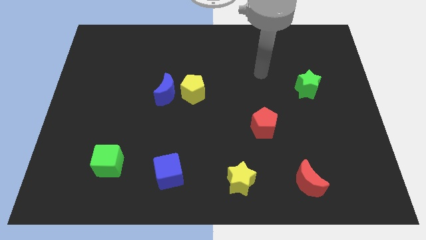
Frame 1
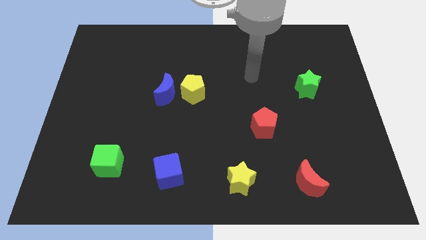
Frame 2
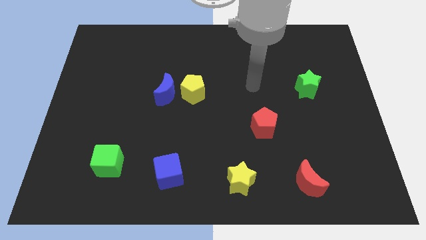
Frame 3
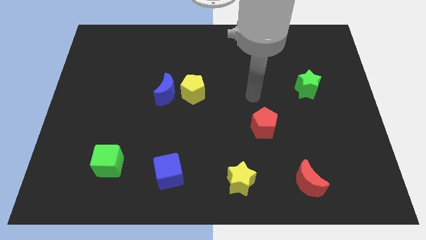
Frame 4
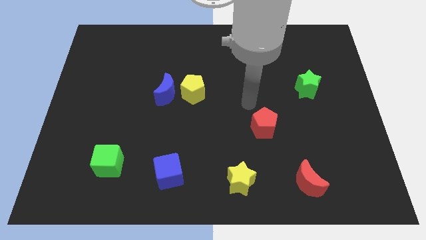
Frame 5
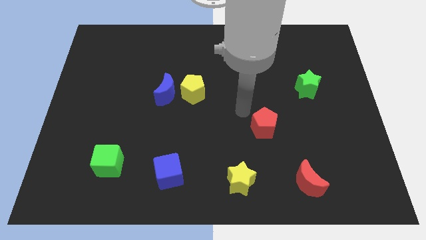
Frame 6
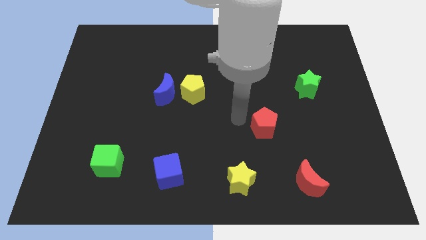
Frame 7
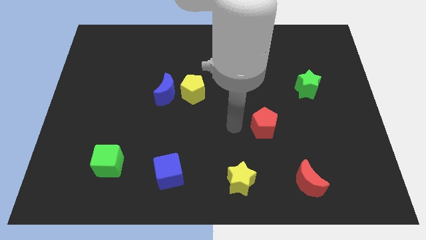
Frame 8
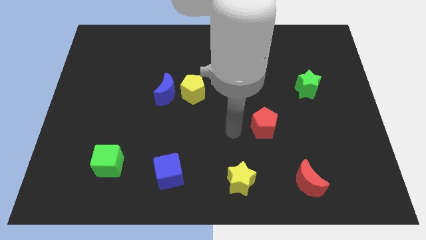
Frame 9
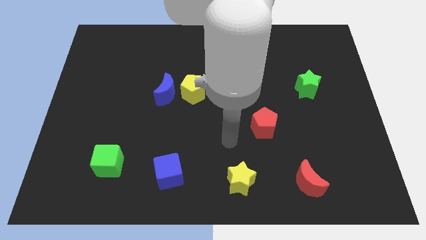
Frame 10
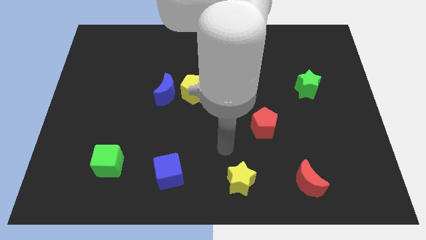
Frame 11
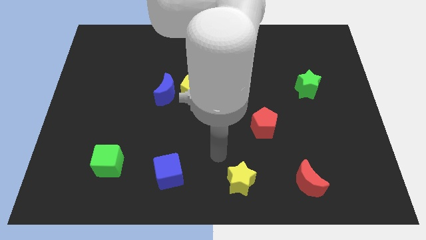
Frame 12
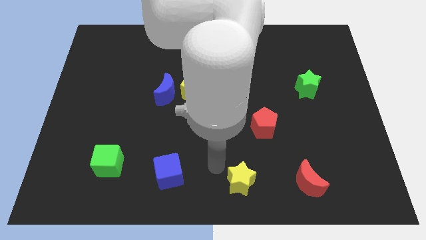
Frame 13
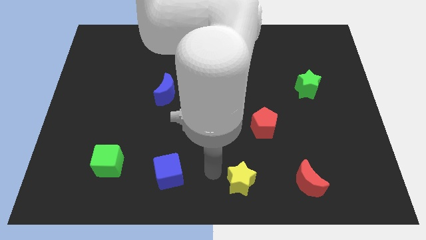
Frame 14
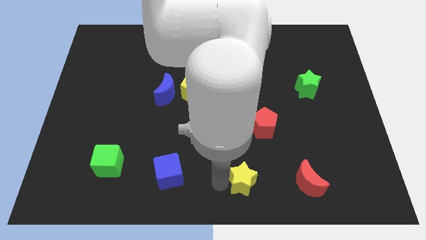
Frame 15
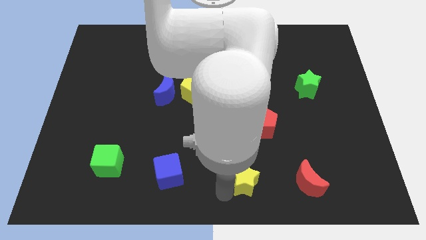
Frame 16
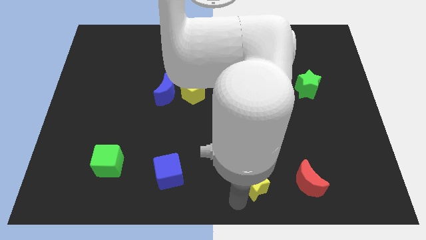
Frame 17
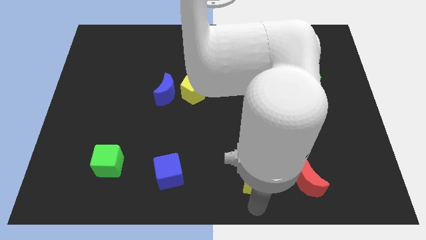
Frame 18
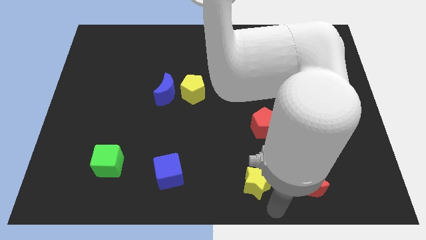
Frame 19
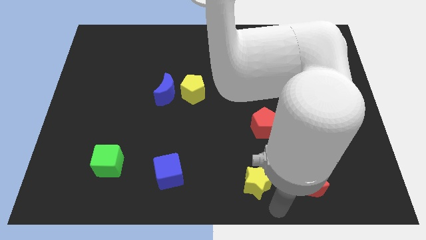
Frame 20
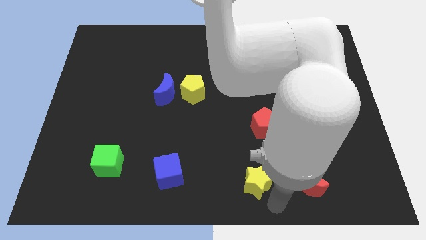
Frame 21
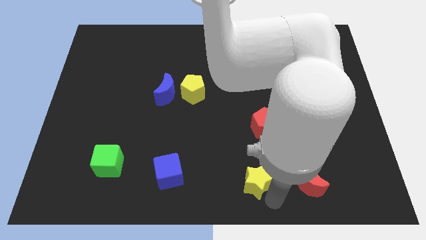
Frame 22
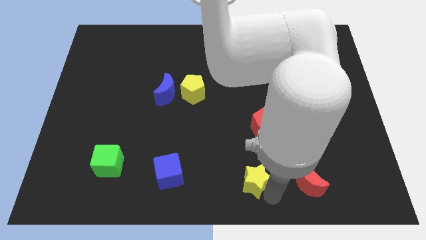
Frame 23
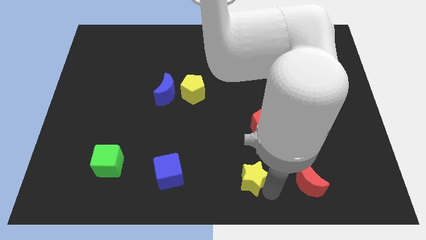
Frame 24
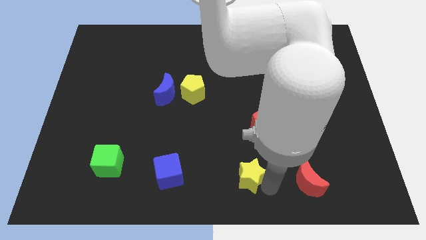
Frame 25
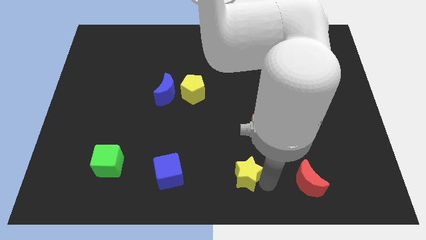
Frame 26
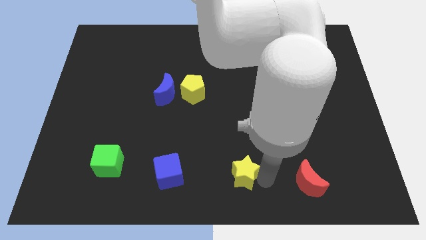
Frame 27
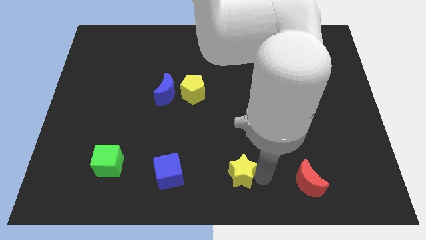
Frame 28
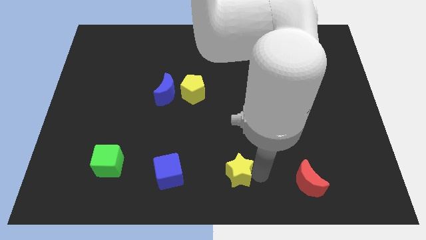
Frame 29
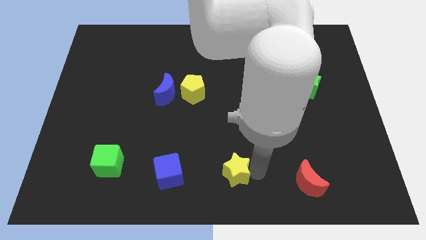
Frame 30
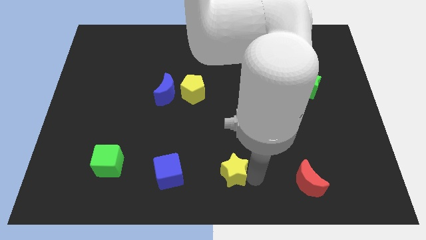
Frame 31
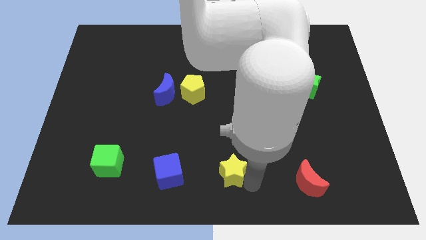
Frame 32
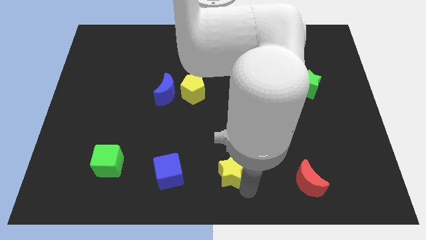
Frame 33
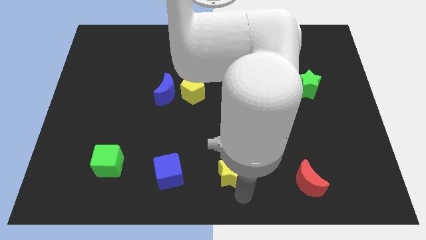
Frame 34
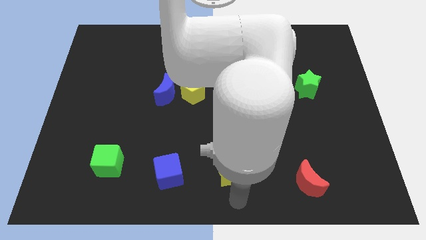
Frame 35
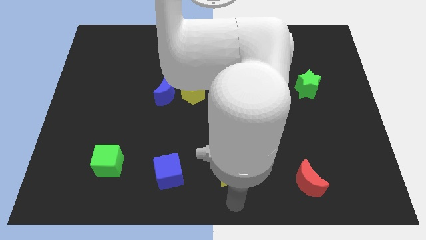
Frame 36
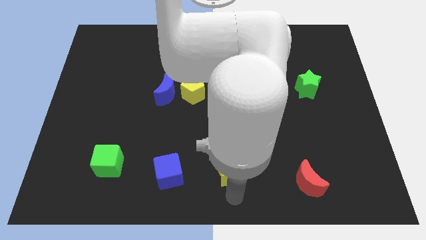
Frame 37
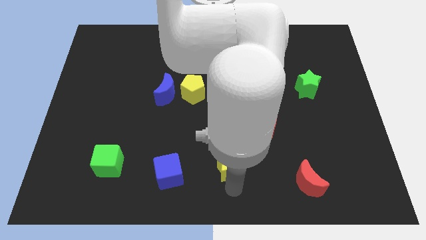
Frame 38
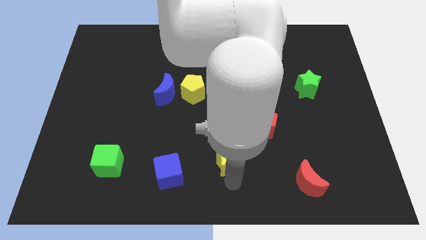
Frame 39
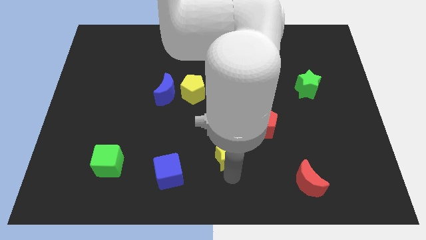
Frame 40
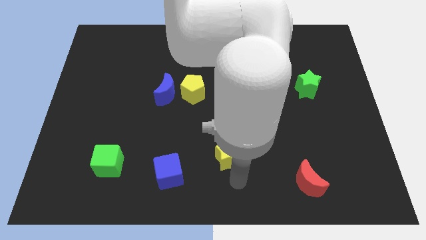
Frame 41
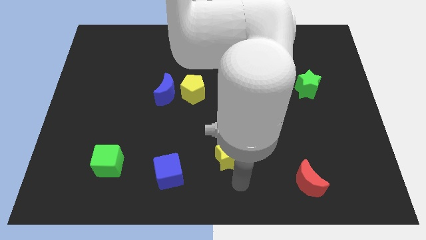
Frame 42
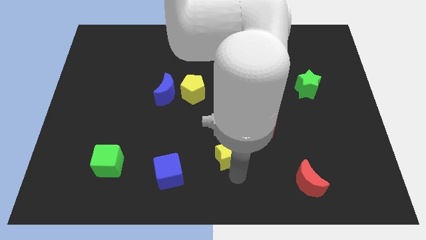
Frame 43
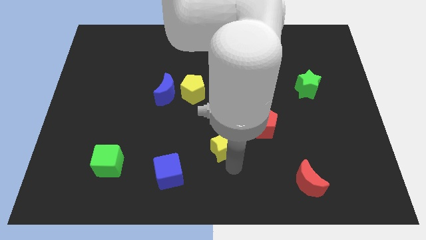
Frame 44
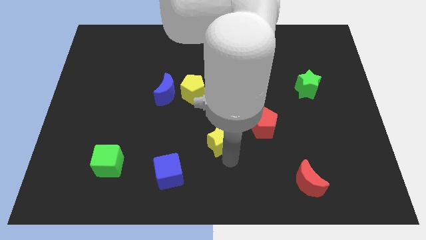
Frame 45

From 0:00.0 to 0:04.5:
move the yellow star to the left side of the red pentagon

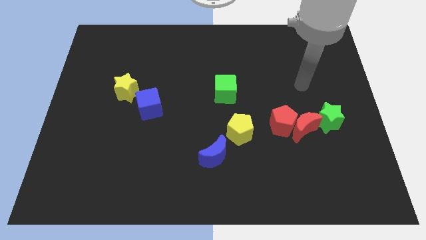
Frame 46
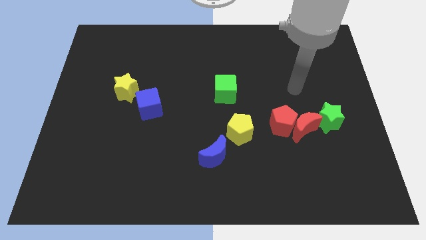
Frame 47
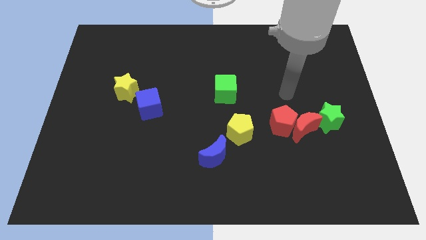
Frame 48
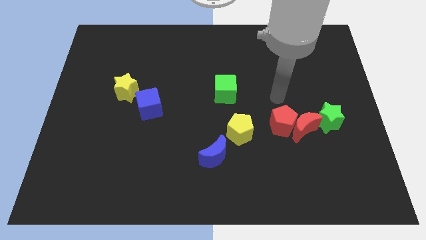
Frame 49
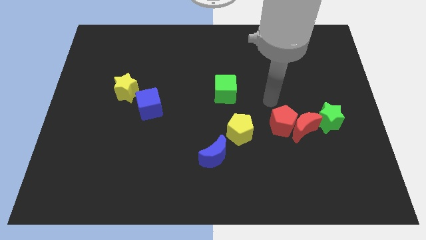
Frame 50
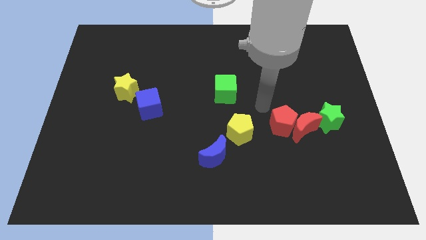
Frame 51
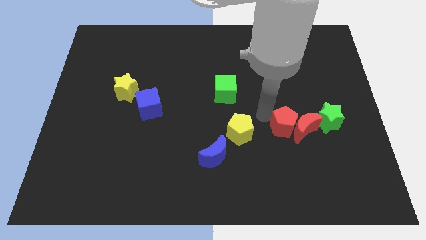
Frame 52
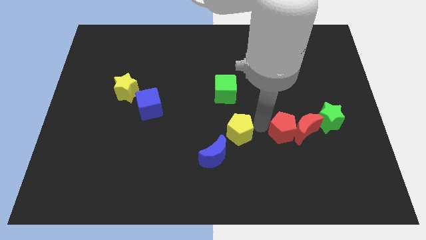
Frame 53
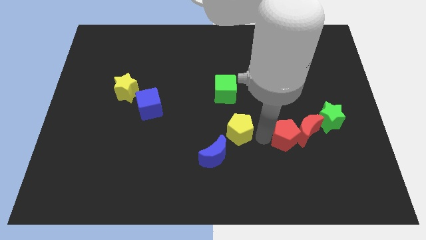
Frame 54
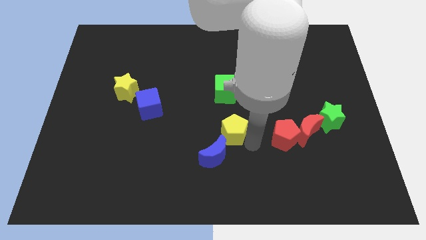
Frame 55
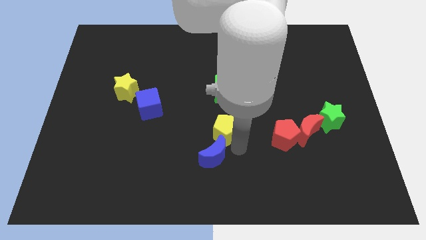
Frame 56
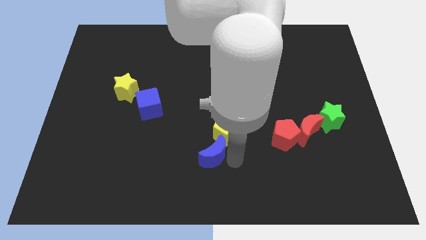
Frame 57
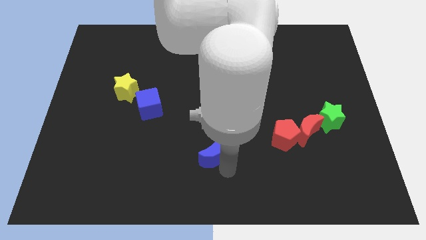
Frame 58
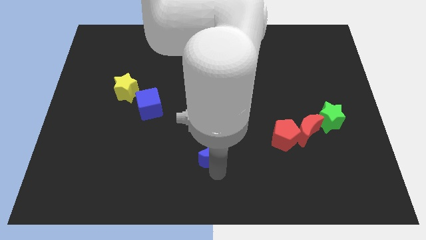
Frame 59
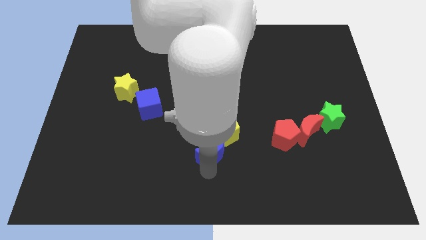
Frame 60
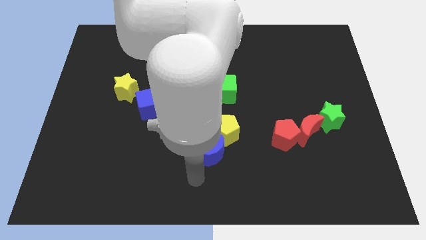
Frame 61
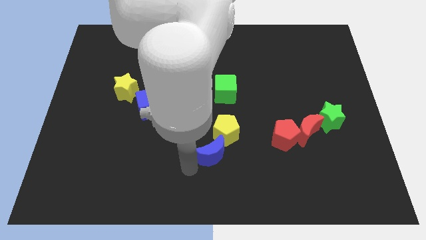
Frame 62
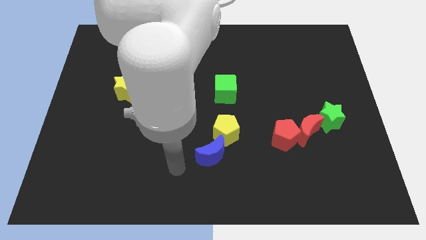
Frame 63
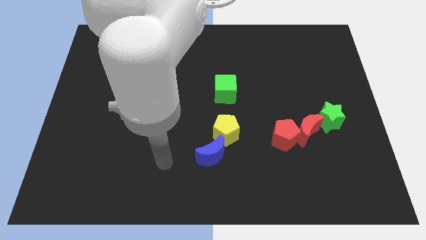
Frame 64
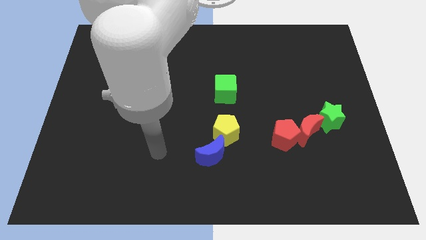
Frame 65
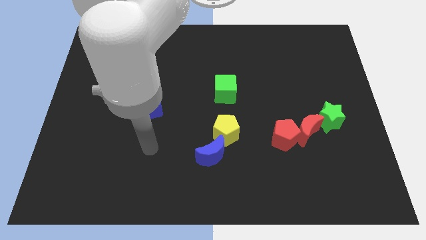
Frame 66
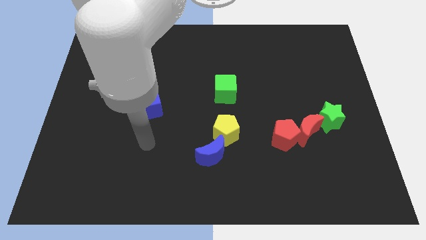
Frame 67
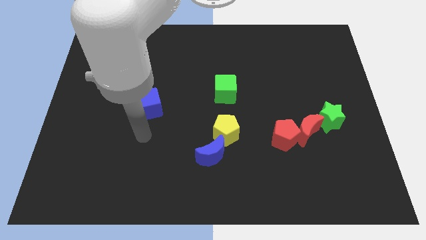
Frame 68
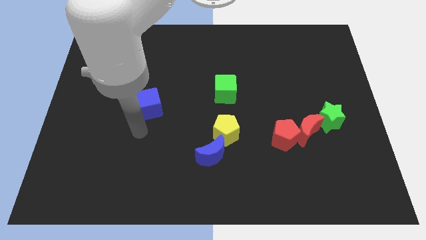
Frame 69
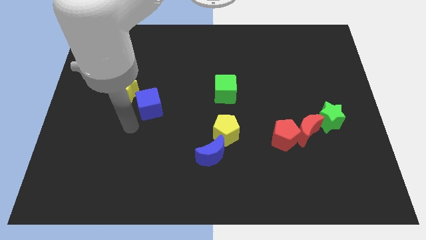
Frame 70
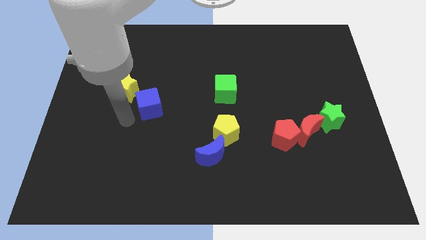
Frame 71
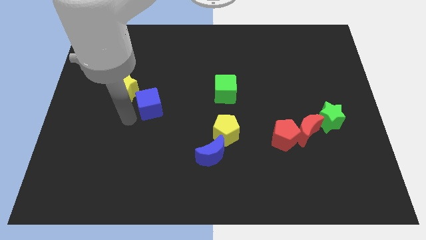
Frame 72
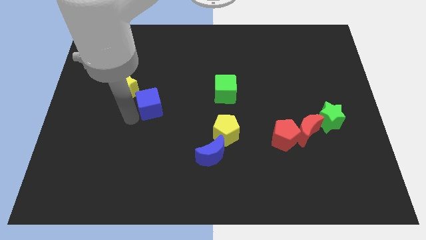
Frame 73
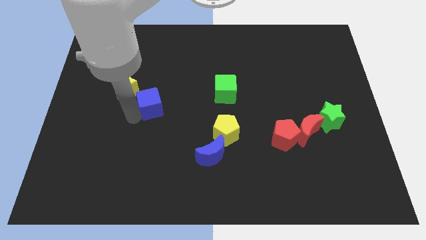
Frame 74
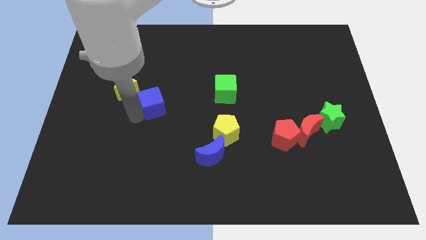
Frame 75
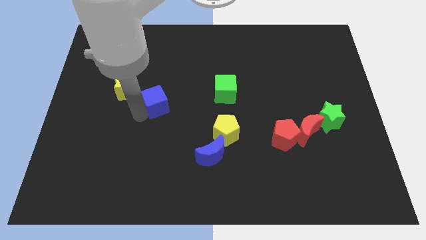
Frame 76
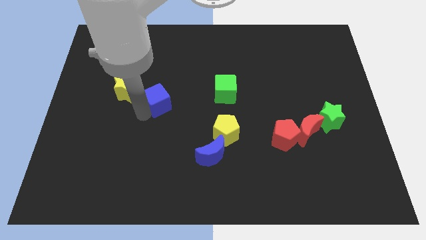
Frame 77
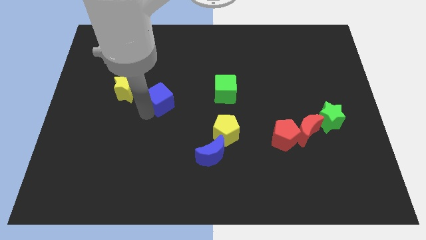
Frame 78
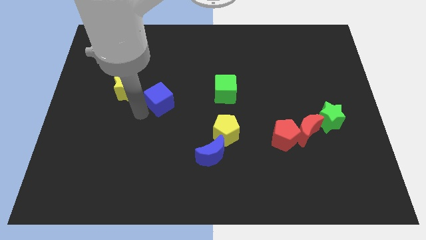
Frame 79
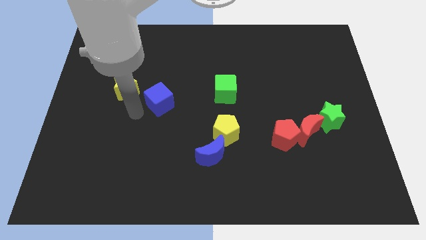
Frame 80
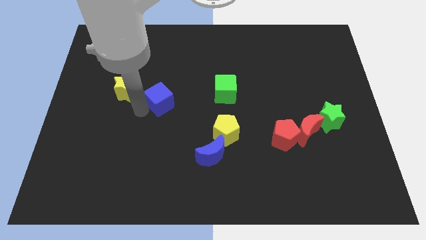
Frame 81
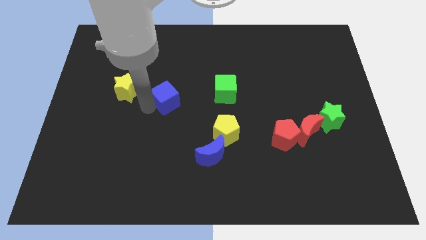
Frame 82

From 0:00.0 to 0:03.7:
push the blue cube just left of the green cube
